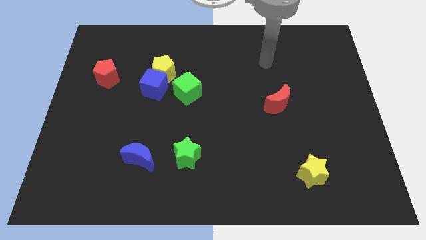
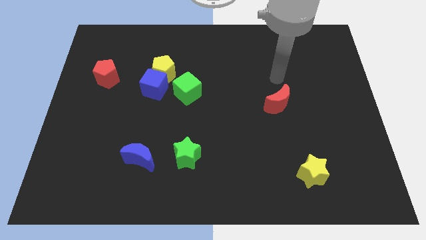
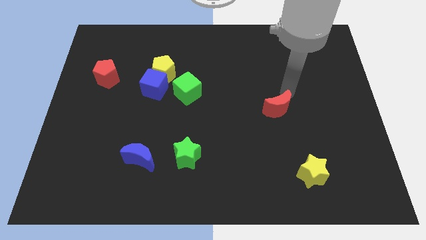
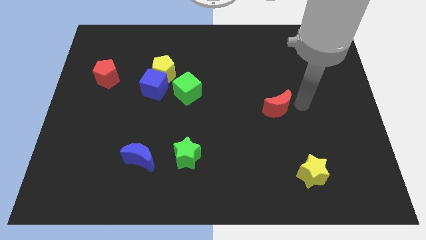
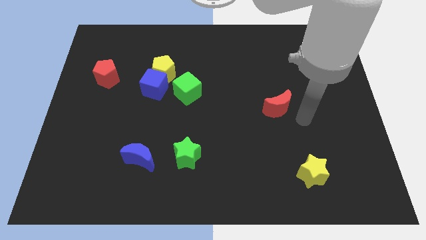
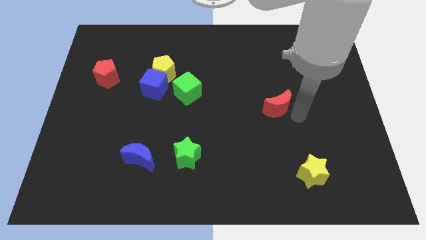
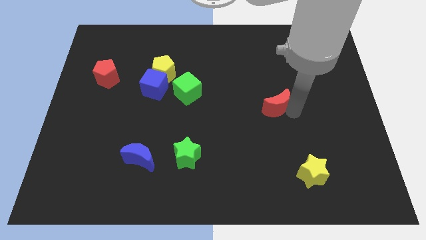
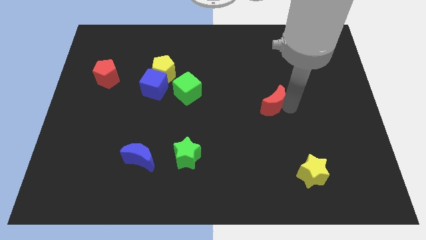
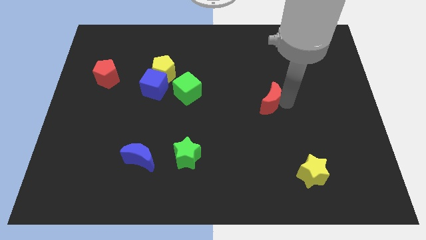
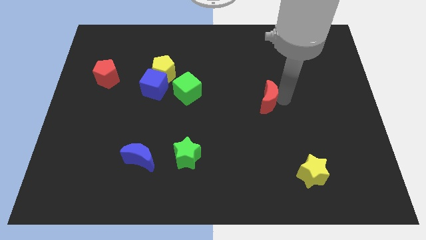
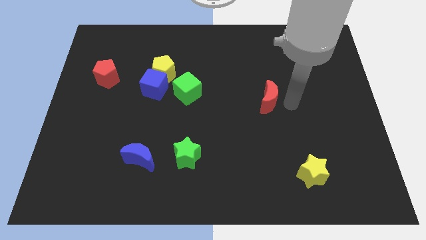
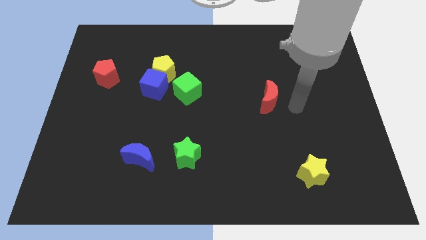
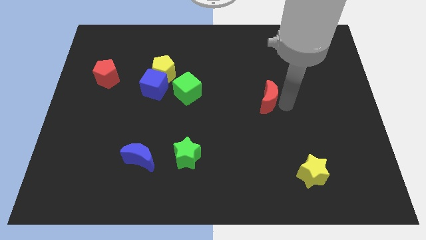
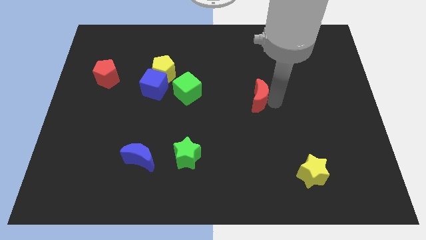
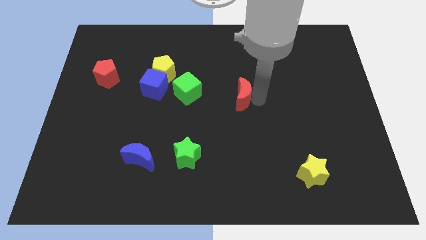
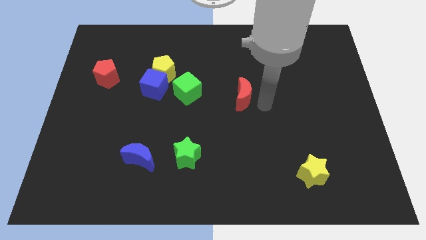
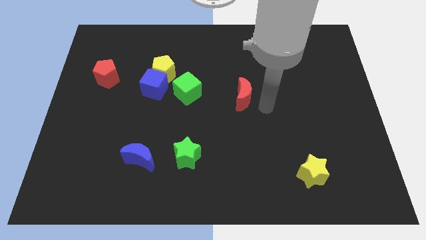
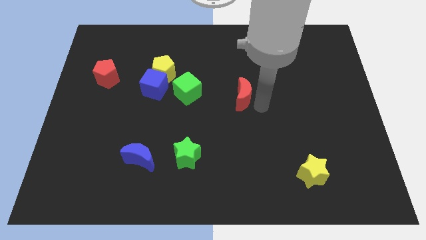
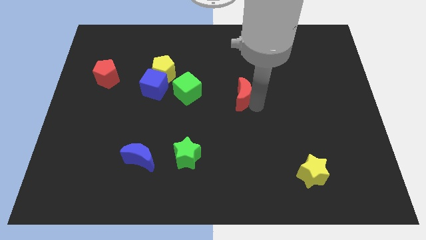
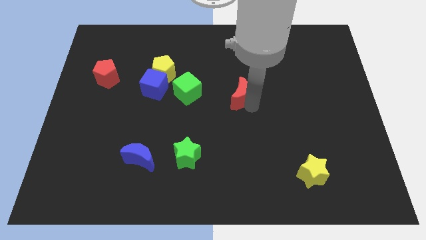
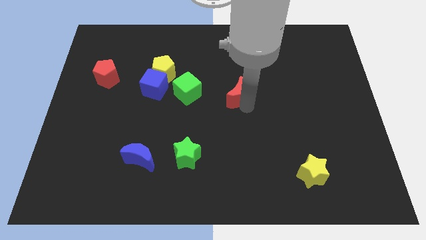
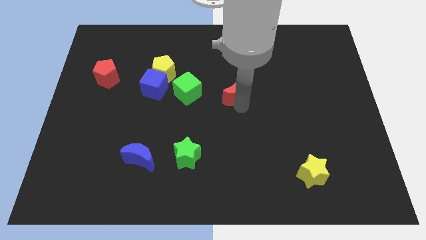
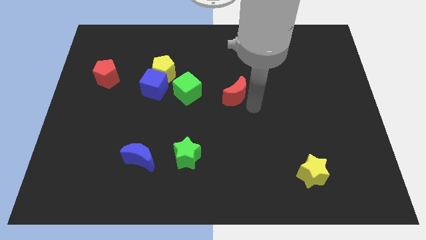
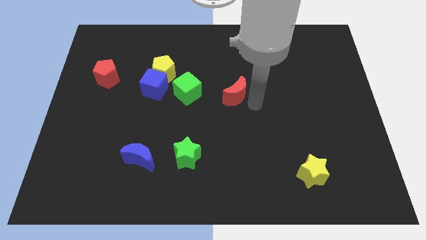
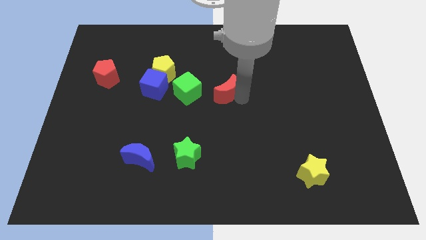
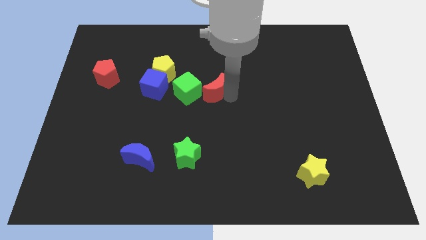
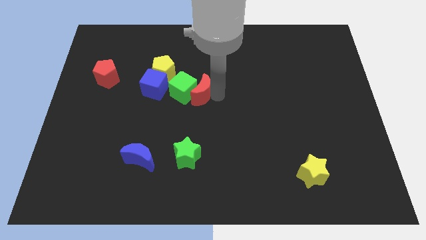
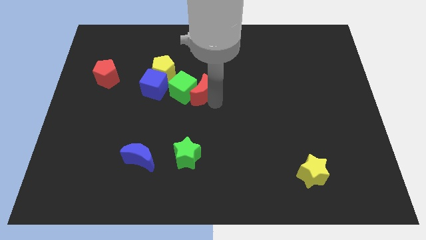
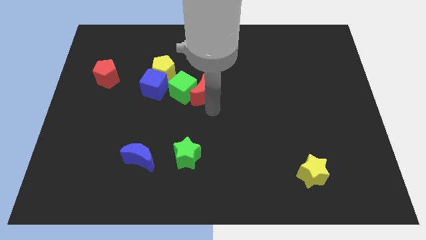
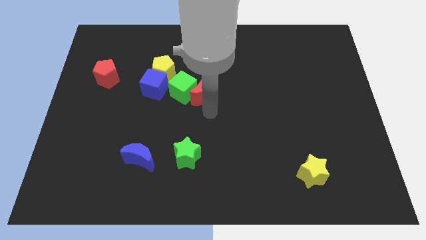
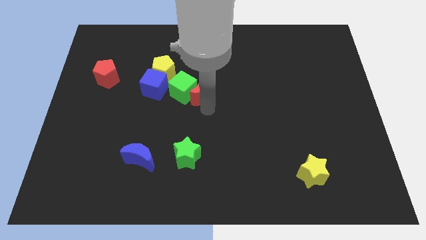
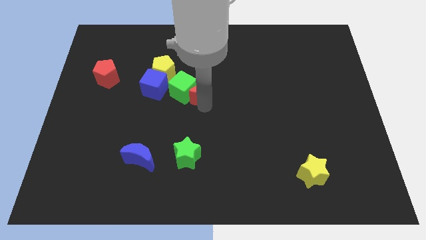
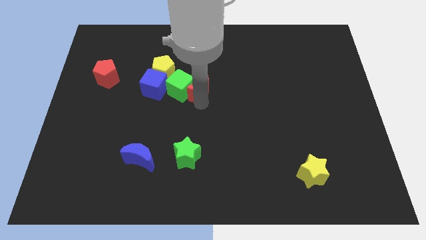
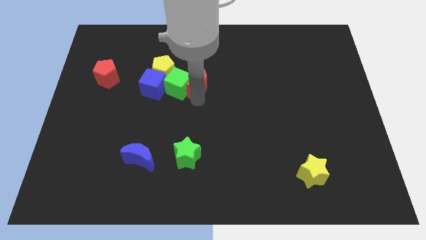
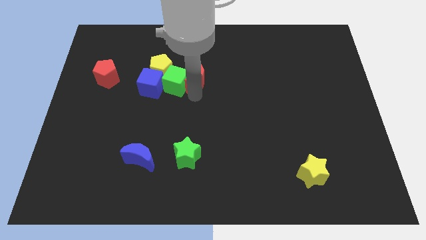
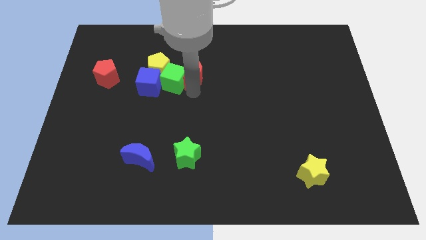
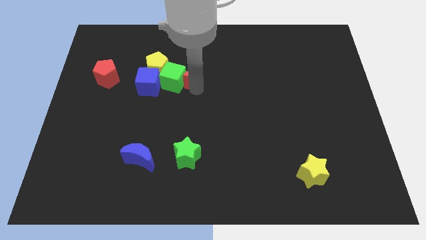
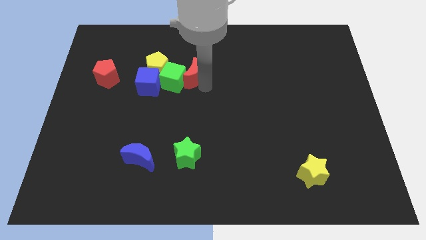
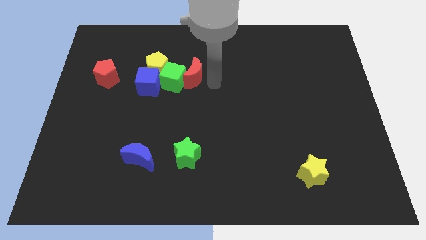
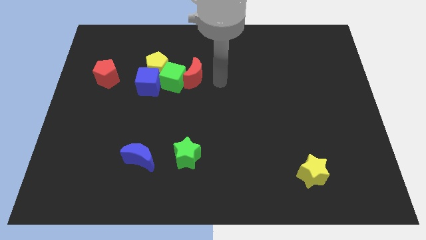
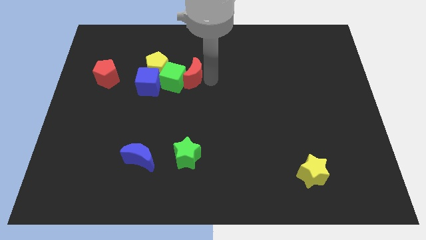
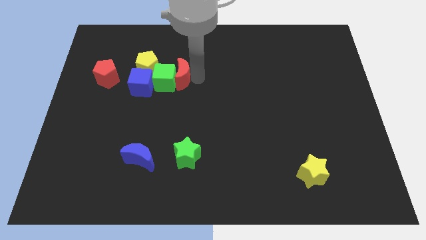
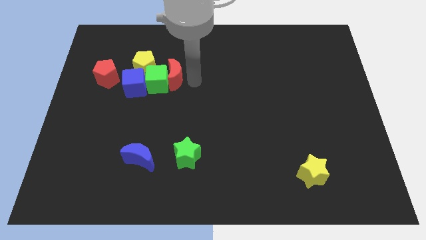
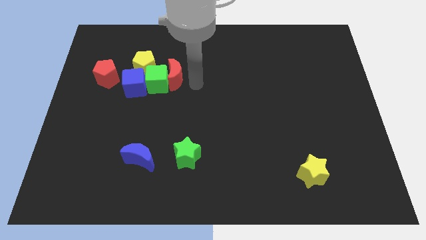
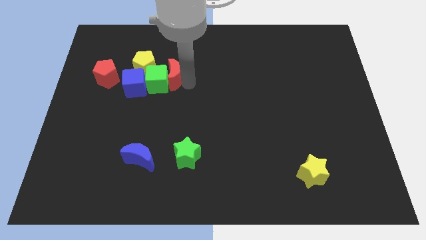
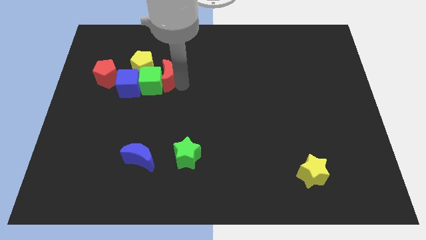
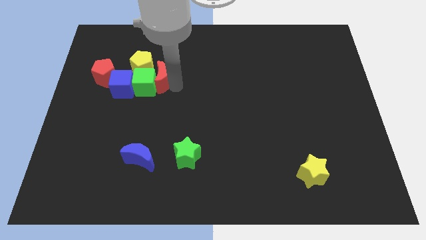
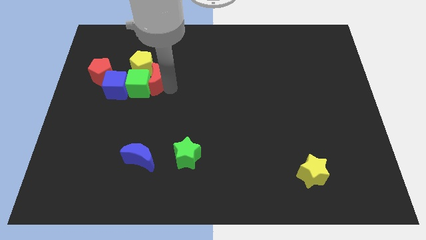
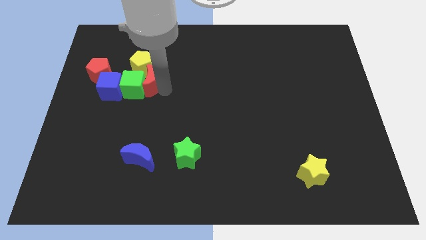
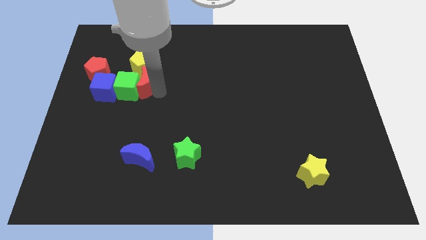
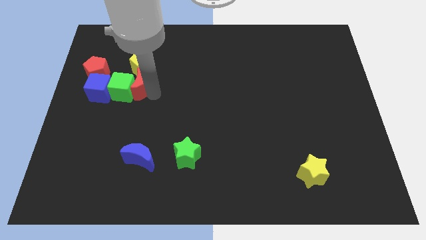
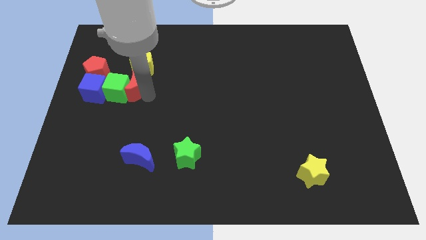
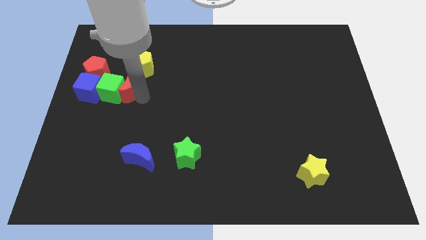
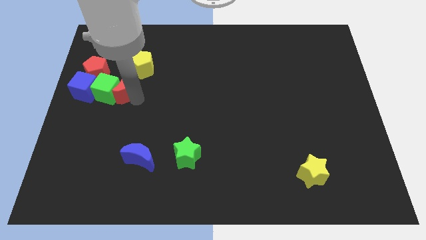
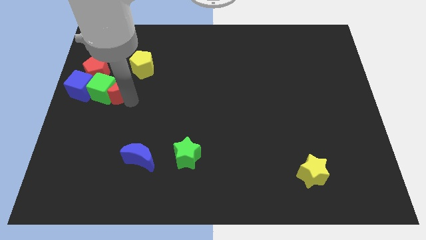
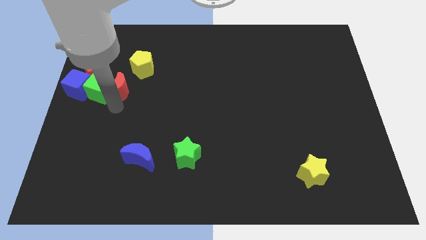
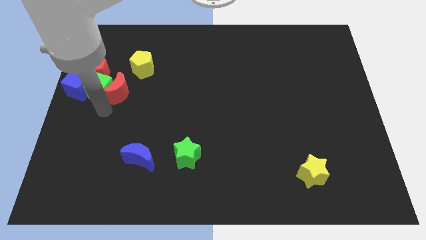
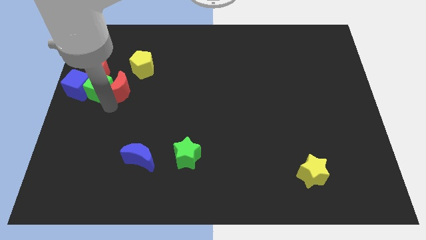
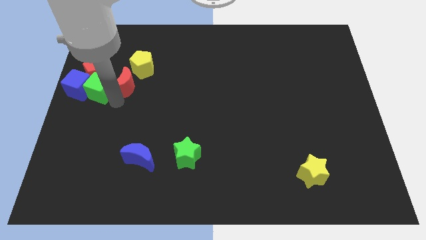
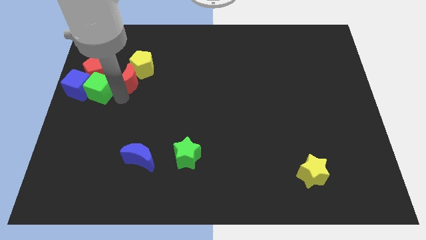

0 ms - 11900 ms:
push the red moon to the yellow pentagon

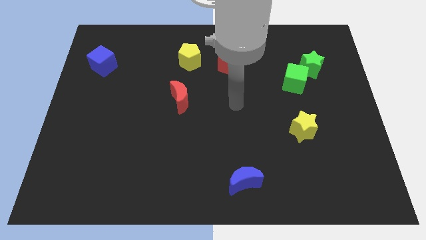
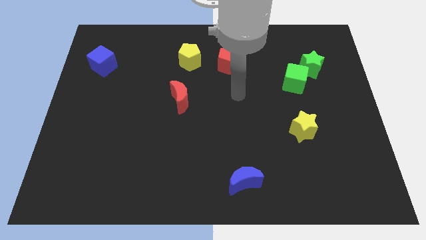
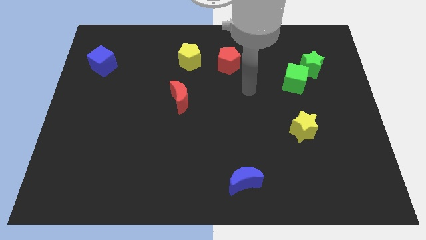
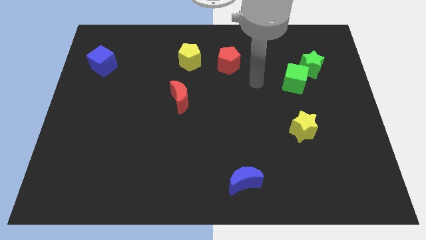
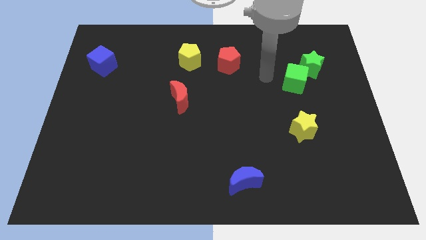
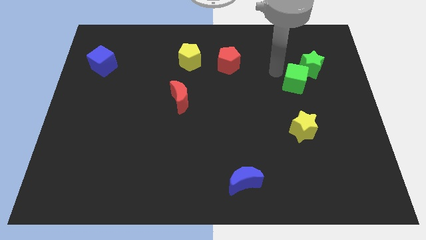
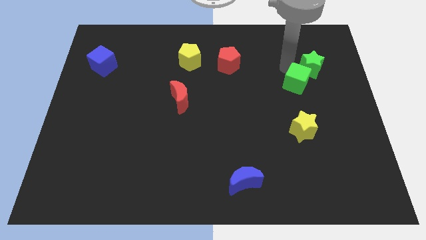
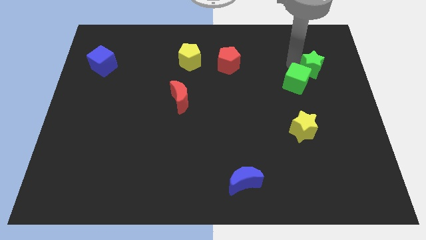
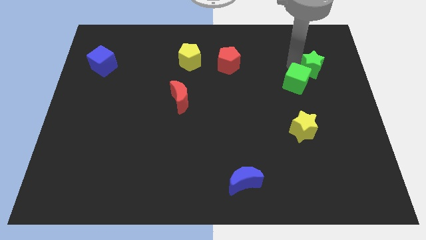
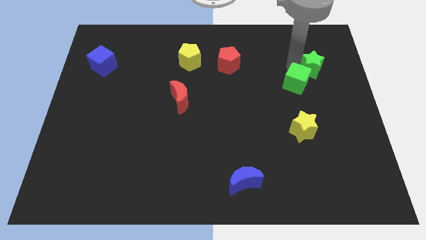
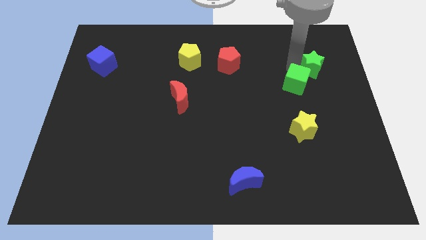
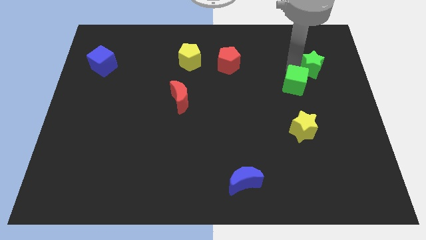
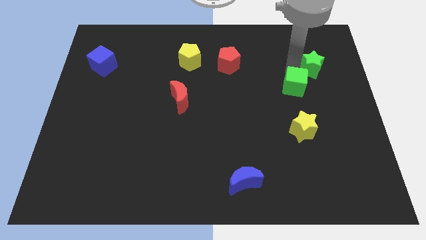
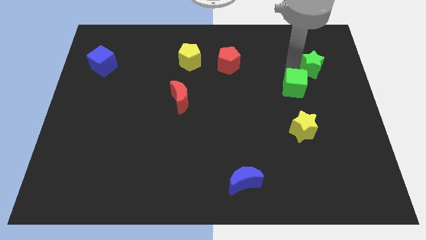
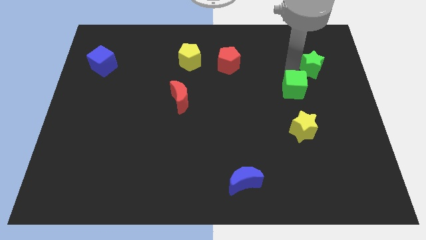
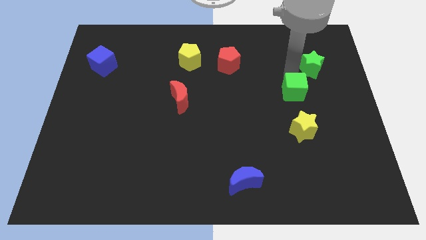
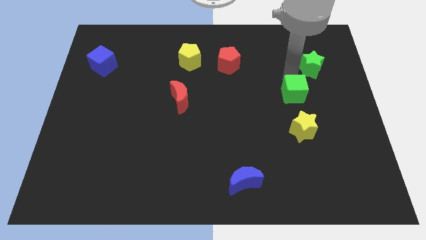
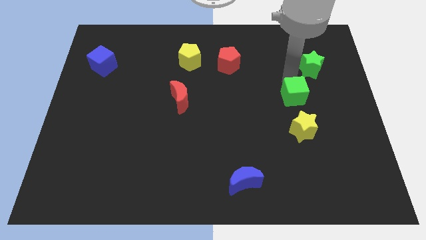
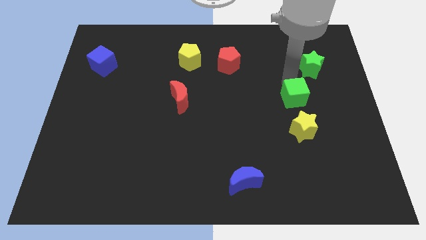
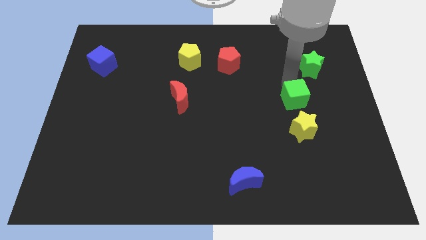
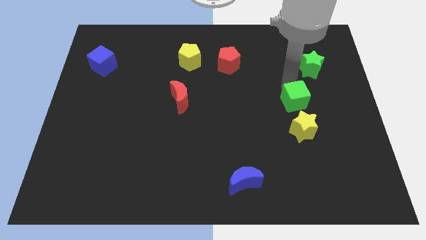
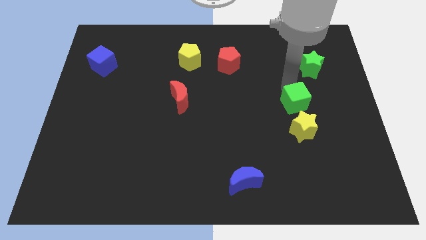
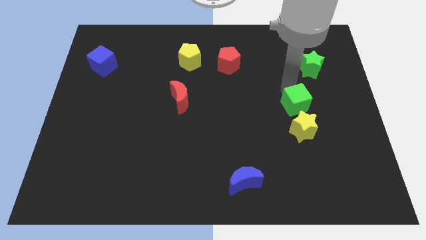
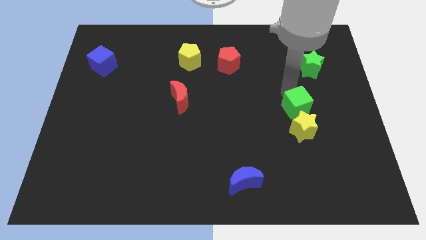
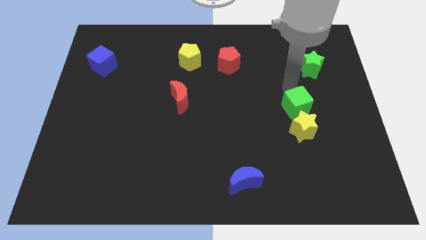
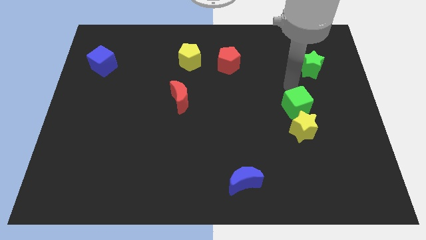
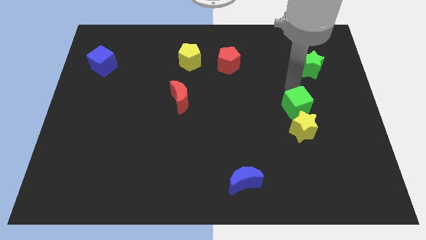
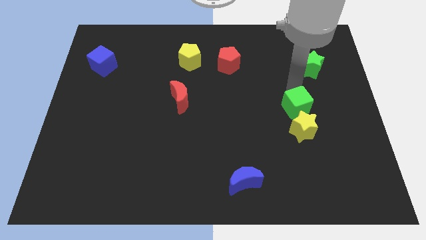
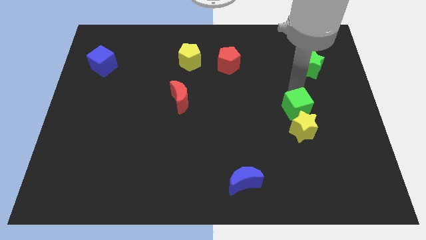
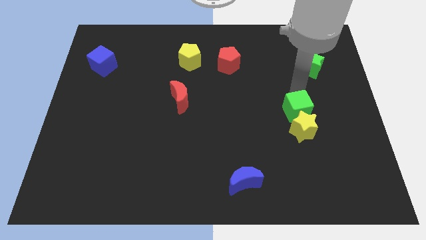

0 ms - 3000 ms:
push the green cube to the yellow star
